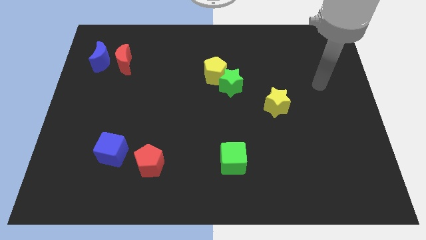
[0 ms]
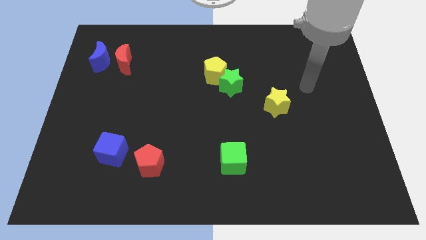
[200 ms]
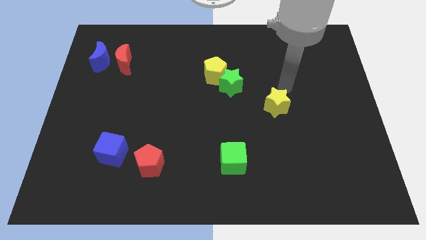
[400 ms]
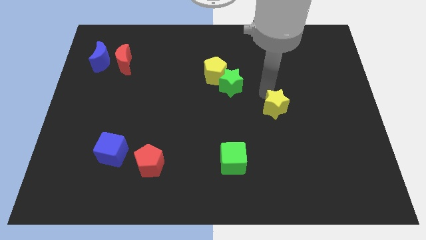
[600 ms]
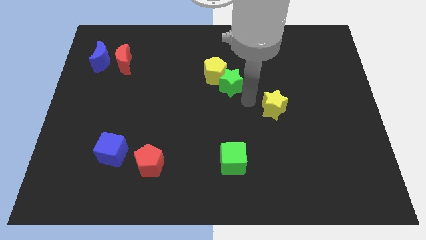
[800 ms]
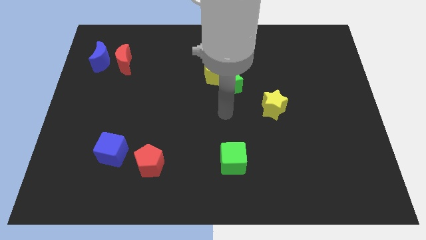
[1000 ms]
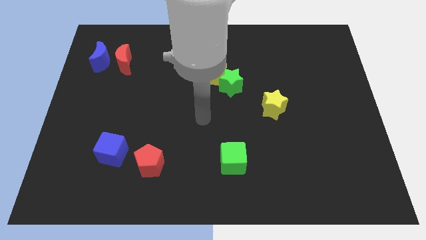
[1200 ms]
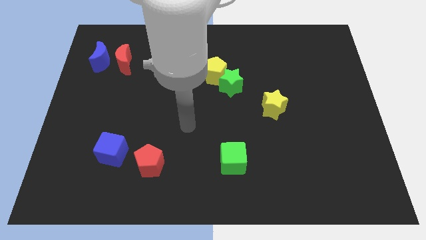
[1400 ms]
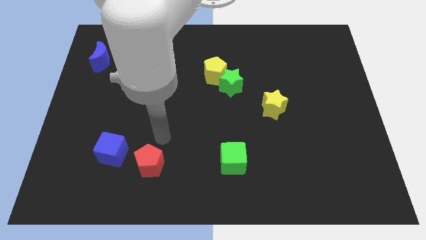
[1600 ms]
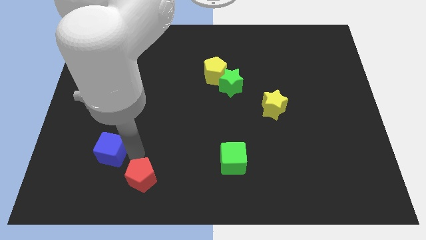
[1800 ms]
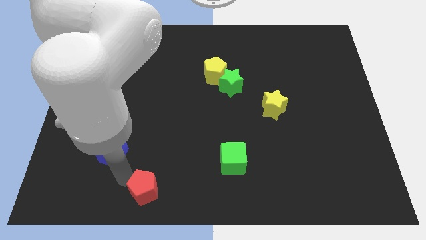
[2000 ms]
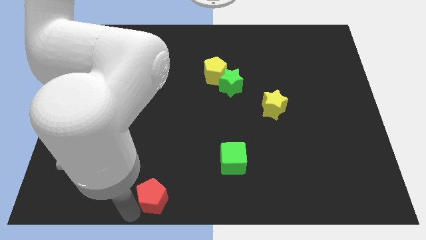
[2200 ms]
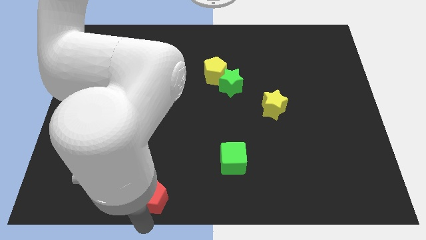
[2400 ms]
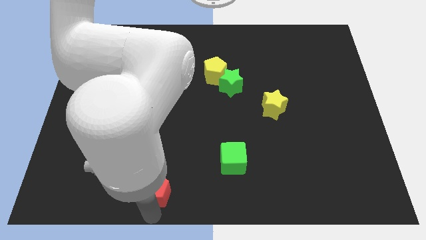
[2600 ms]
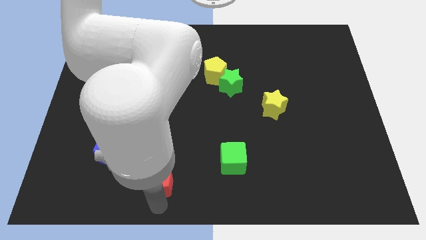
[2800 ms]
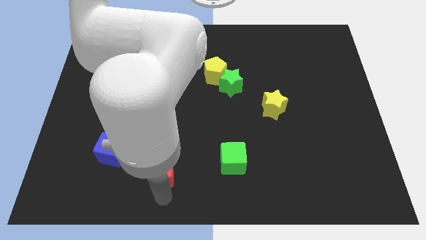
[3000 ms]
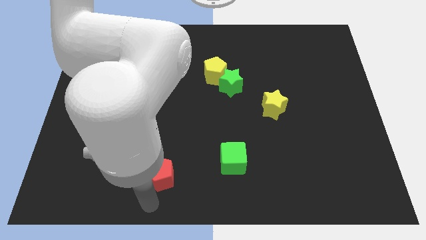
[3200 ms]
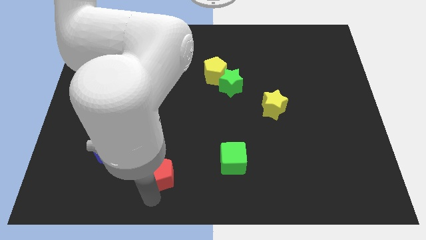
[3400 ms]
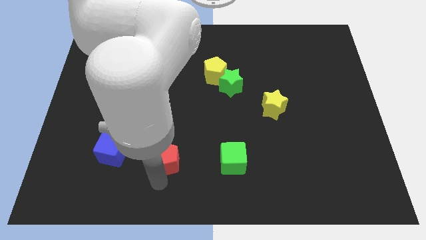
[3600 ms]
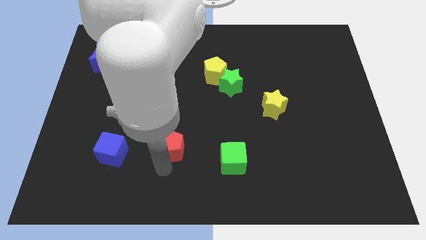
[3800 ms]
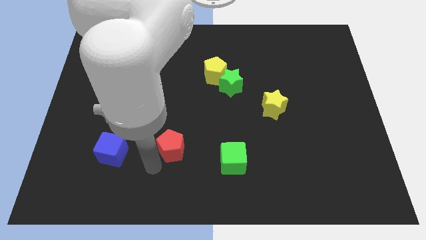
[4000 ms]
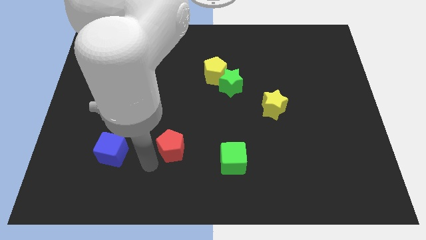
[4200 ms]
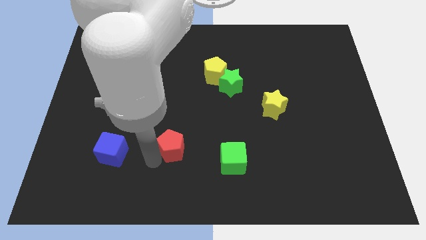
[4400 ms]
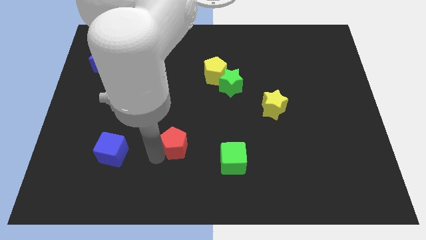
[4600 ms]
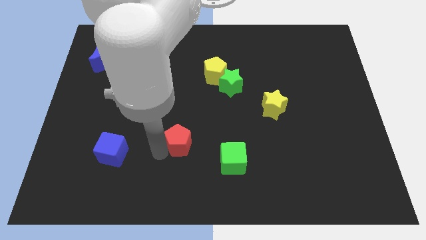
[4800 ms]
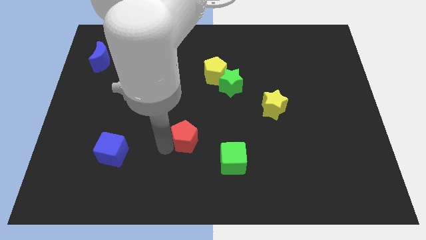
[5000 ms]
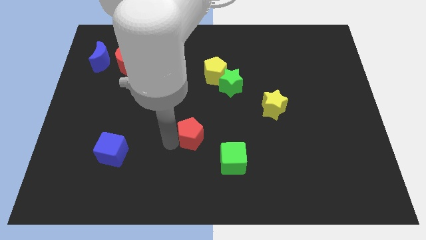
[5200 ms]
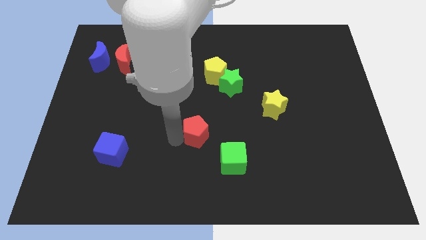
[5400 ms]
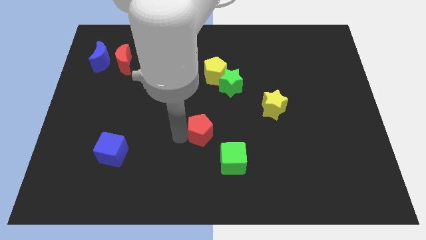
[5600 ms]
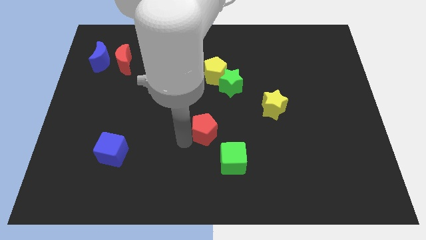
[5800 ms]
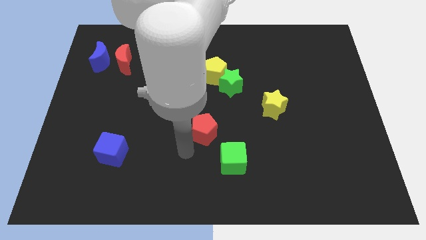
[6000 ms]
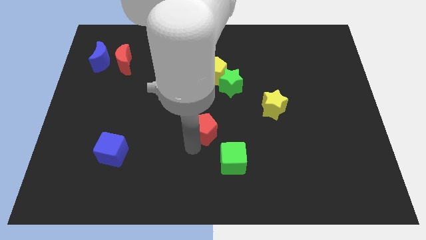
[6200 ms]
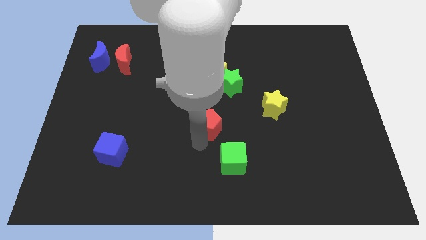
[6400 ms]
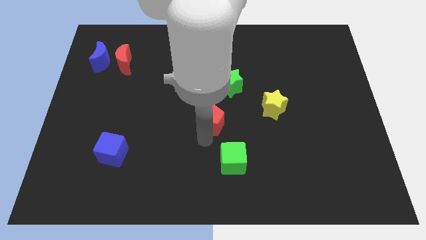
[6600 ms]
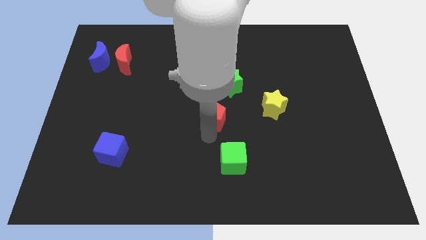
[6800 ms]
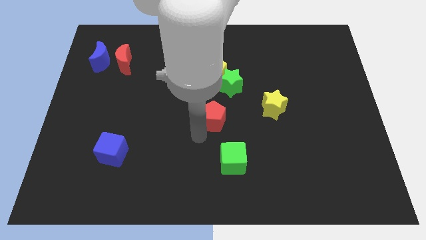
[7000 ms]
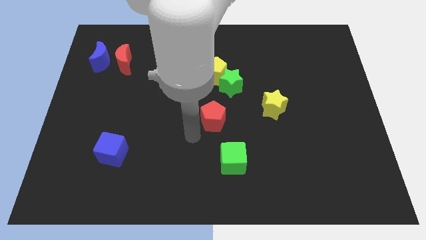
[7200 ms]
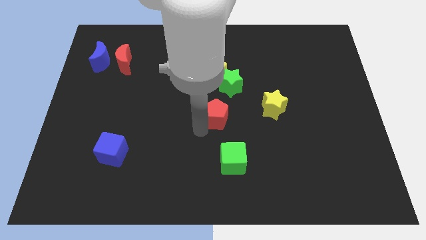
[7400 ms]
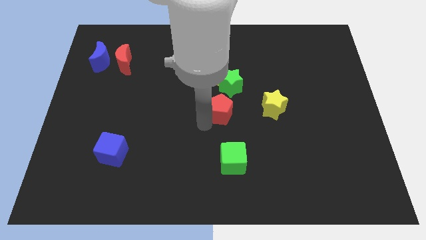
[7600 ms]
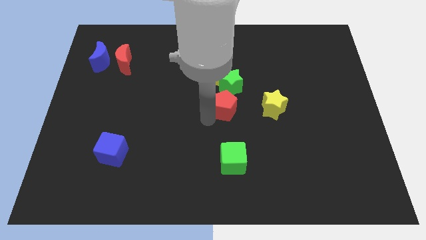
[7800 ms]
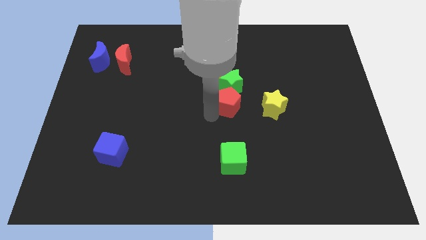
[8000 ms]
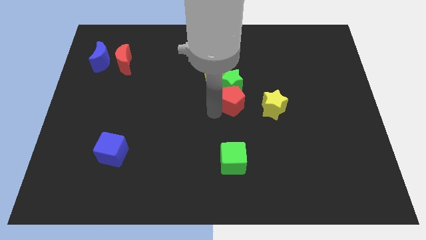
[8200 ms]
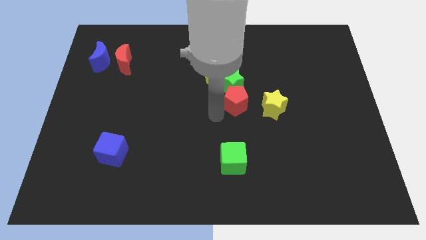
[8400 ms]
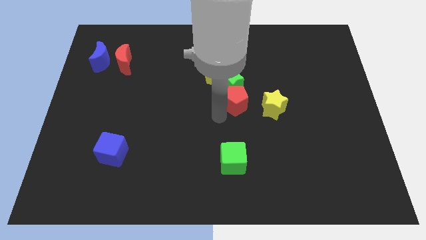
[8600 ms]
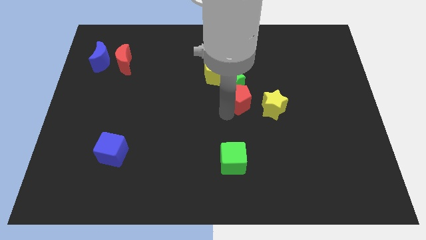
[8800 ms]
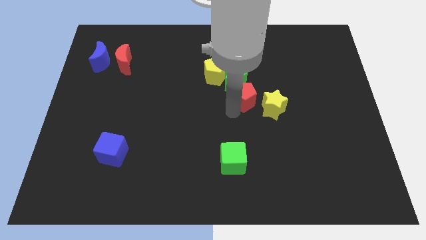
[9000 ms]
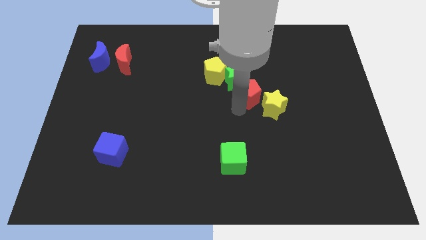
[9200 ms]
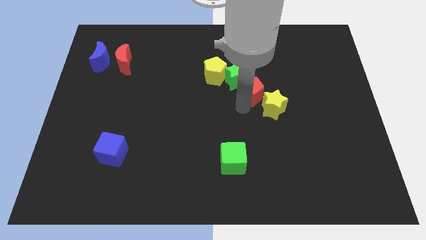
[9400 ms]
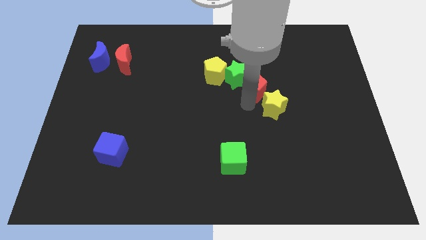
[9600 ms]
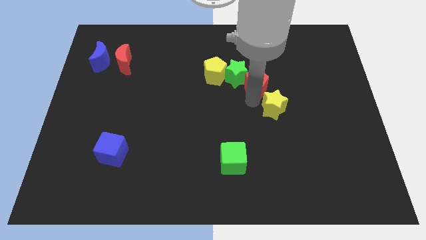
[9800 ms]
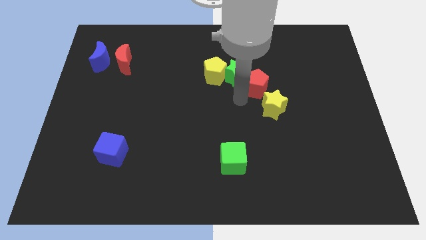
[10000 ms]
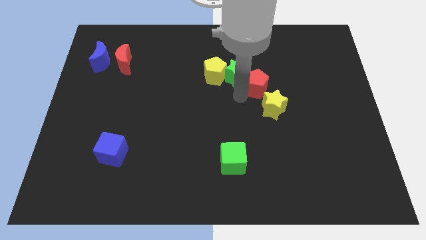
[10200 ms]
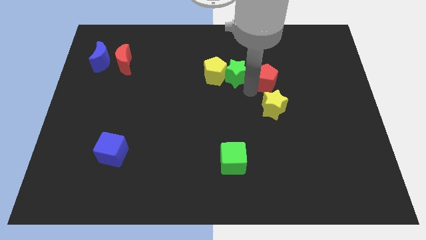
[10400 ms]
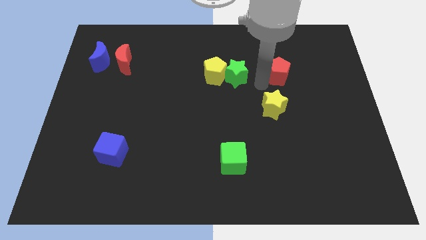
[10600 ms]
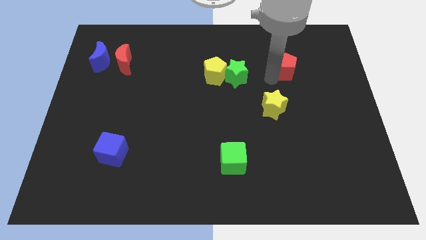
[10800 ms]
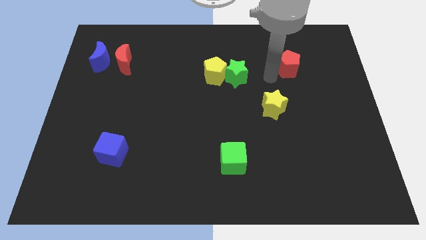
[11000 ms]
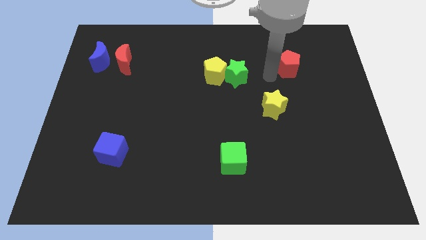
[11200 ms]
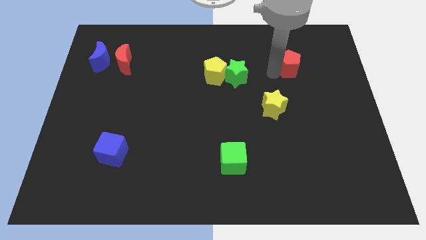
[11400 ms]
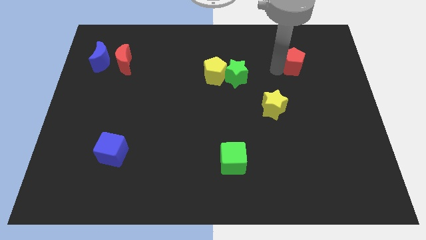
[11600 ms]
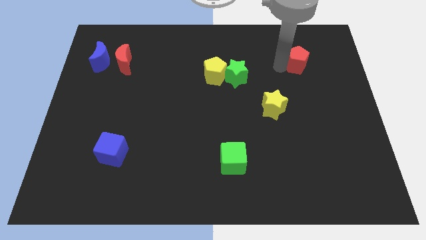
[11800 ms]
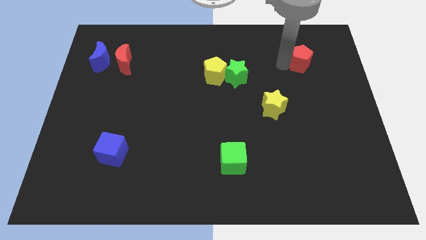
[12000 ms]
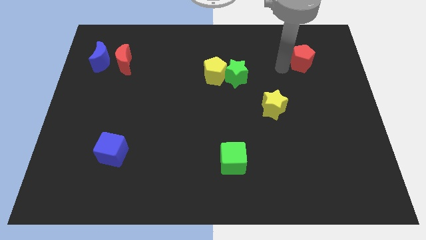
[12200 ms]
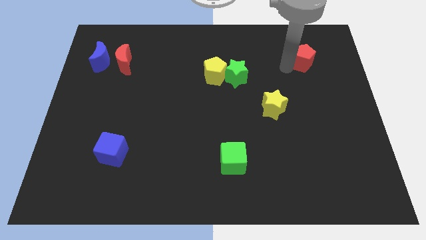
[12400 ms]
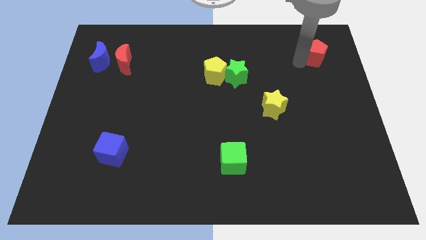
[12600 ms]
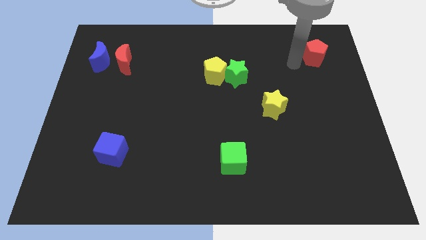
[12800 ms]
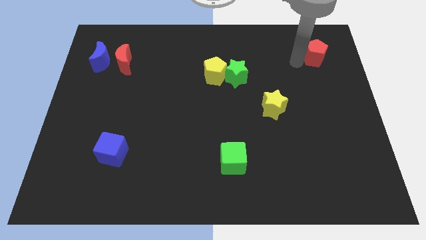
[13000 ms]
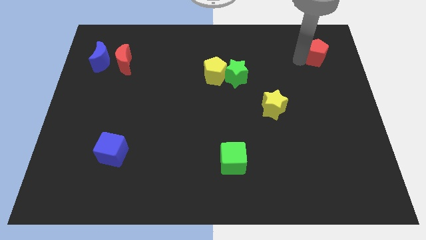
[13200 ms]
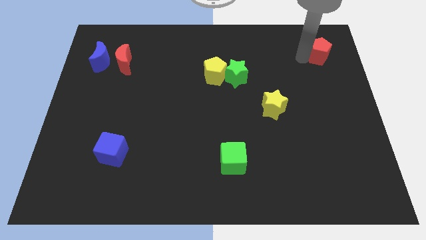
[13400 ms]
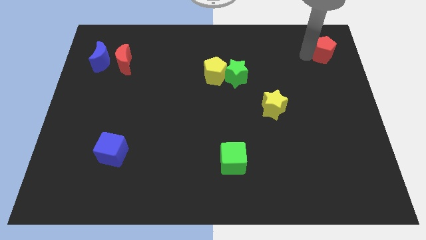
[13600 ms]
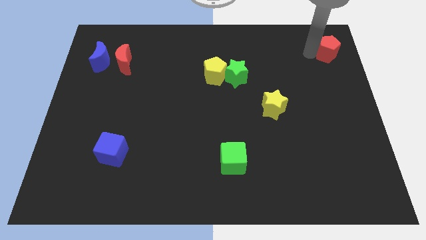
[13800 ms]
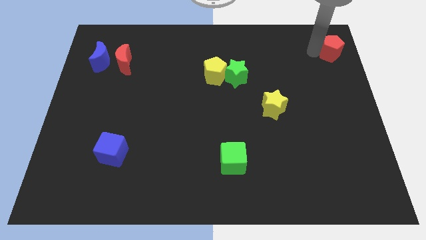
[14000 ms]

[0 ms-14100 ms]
put the red pentagon to the top right corner
